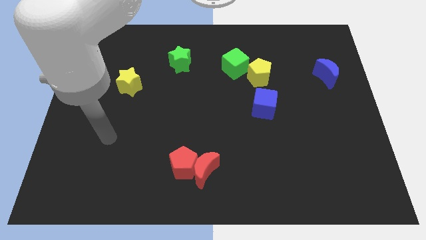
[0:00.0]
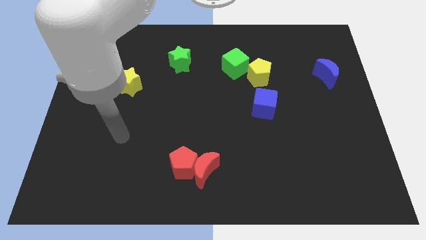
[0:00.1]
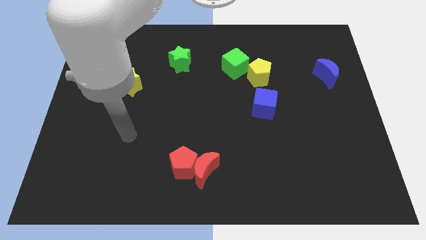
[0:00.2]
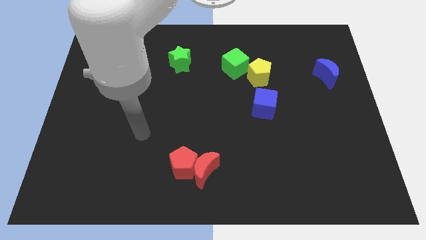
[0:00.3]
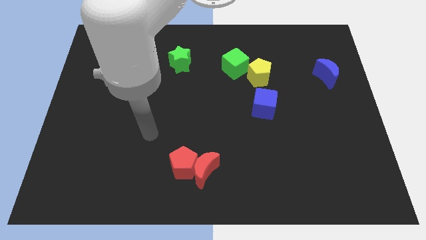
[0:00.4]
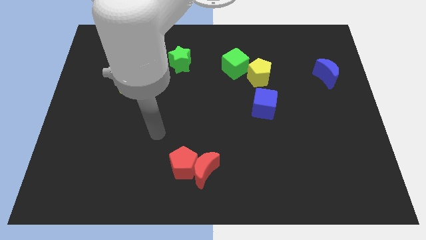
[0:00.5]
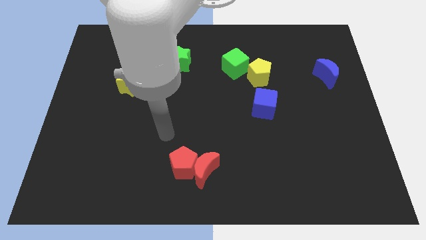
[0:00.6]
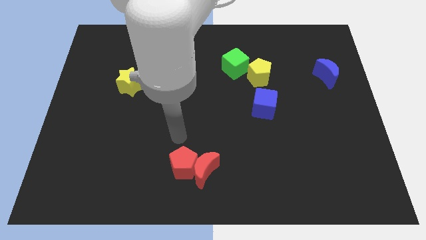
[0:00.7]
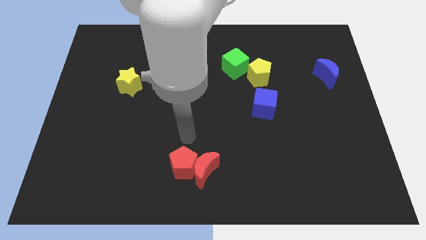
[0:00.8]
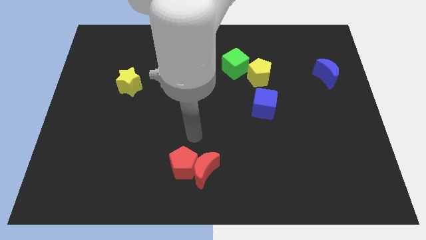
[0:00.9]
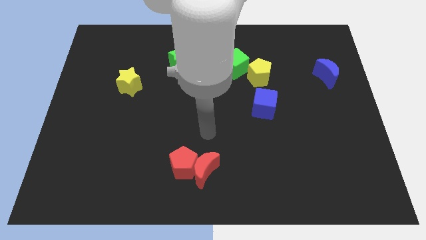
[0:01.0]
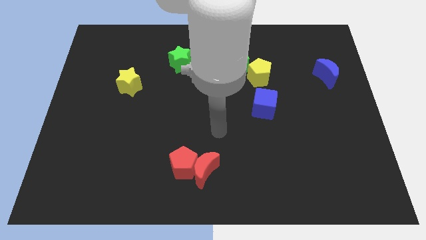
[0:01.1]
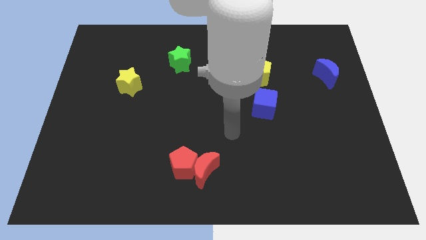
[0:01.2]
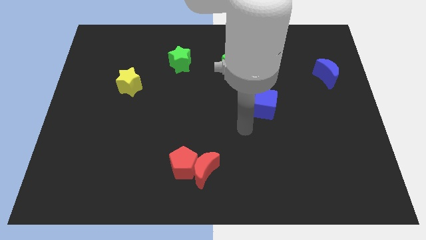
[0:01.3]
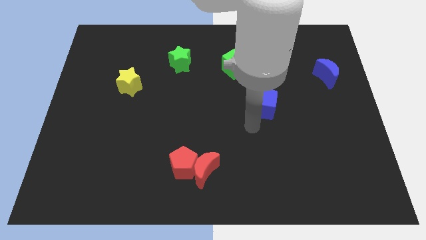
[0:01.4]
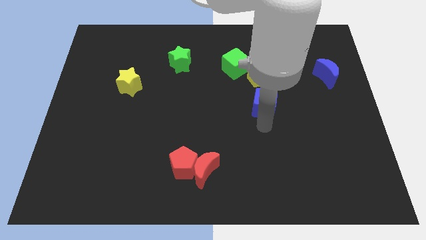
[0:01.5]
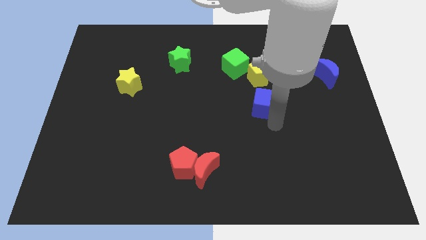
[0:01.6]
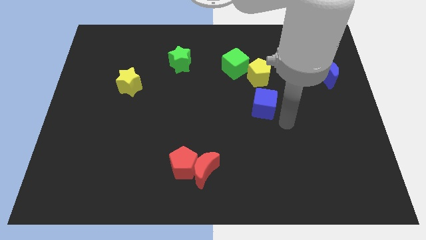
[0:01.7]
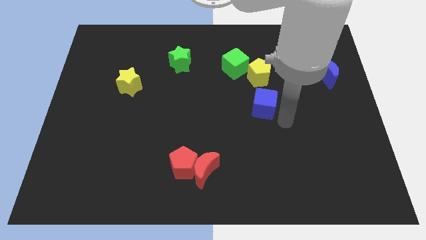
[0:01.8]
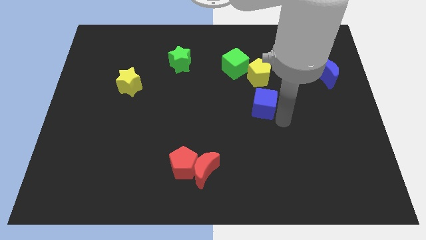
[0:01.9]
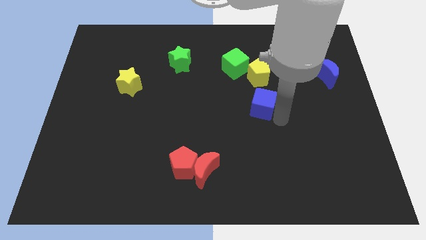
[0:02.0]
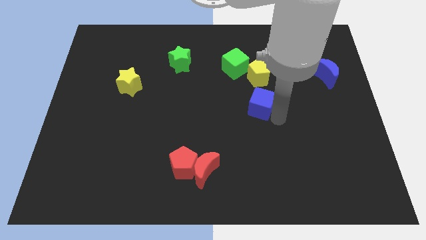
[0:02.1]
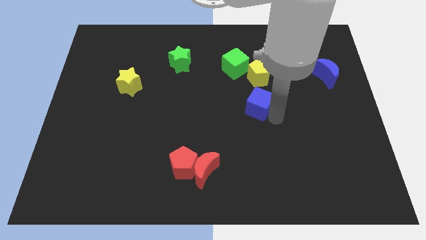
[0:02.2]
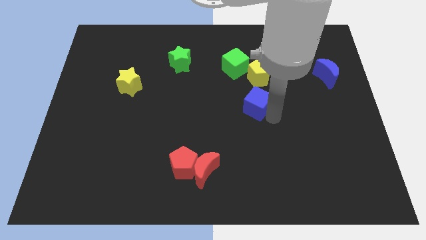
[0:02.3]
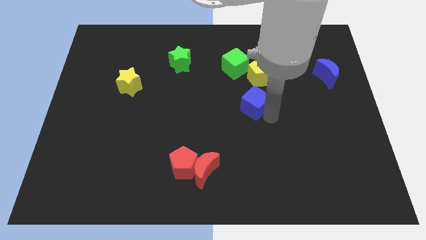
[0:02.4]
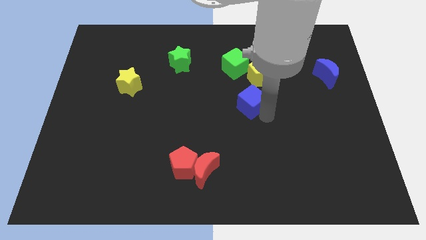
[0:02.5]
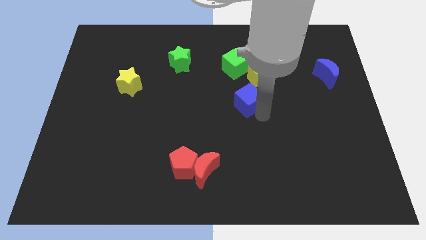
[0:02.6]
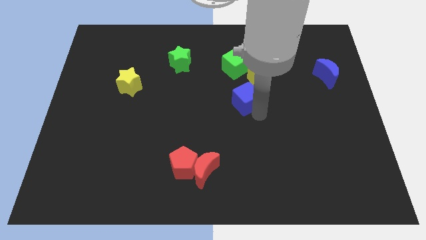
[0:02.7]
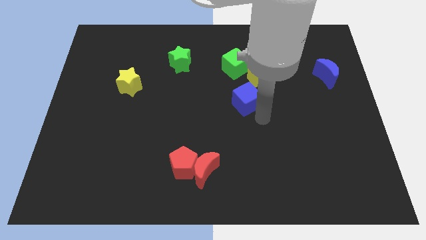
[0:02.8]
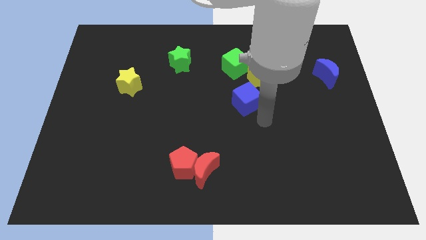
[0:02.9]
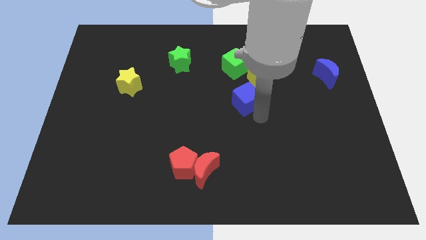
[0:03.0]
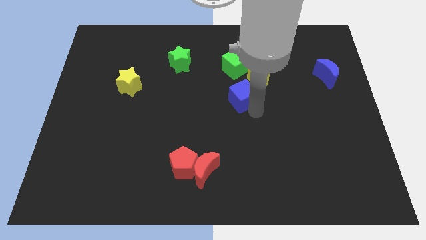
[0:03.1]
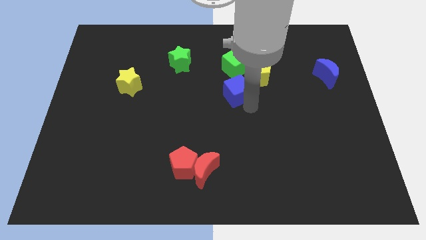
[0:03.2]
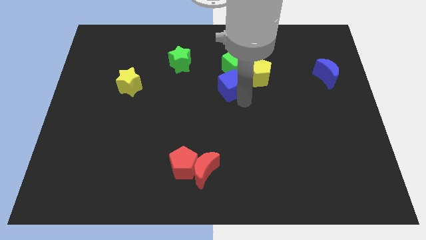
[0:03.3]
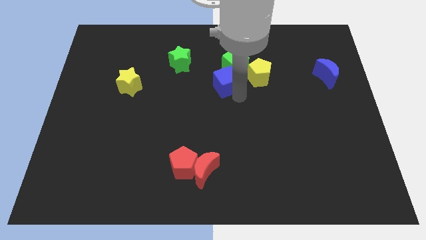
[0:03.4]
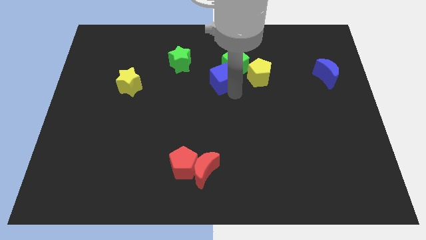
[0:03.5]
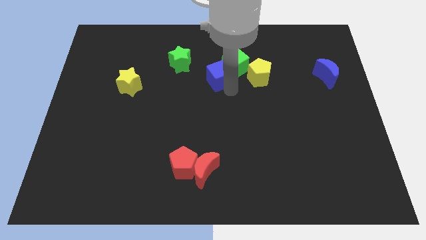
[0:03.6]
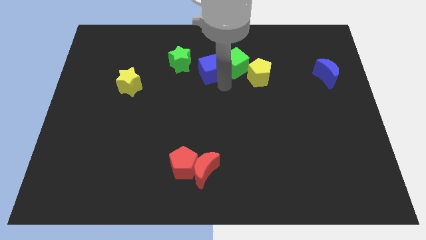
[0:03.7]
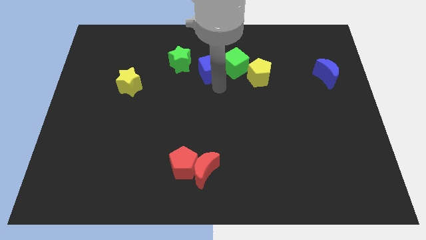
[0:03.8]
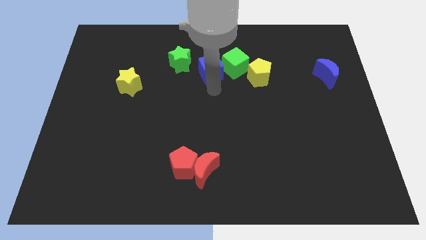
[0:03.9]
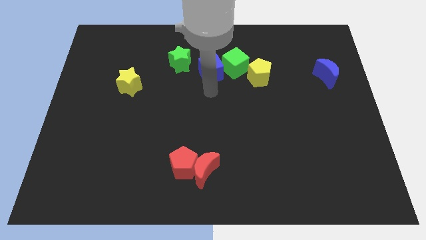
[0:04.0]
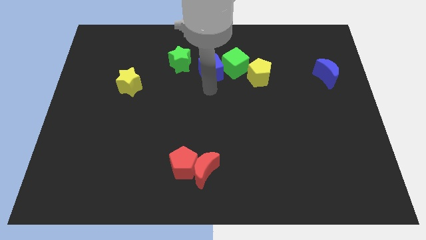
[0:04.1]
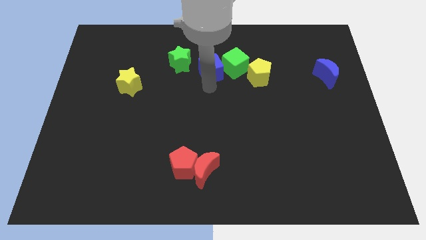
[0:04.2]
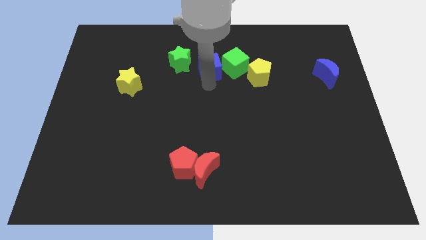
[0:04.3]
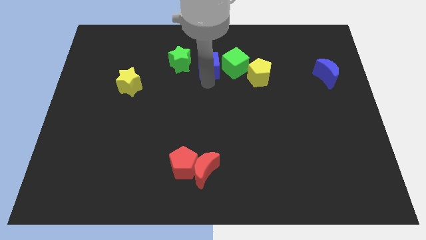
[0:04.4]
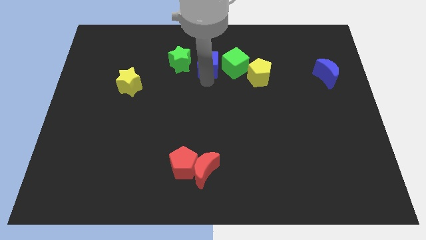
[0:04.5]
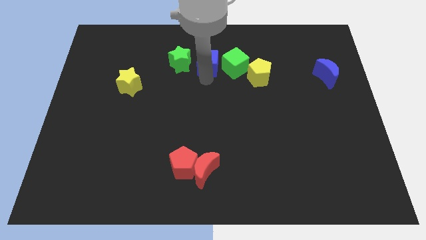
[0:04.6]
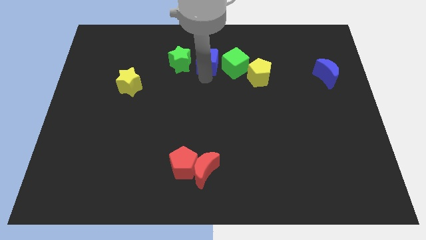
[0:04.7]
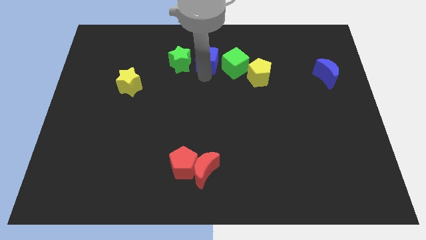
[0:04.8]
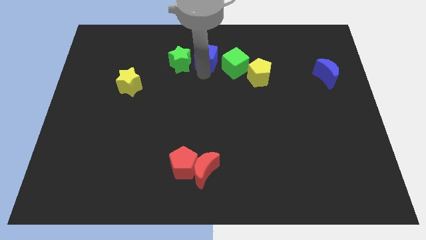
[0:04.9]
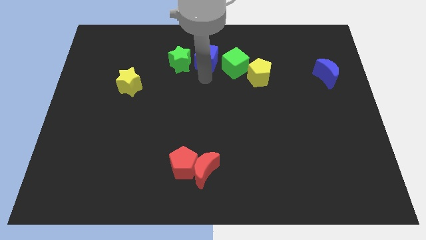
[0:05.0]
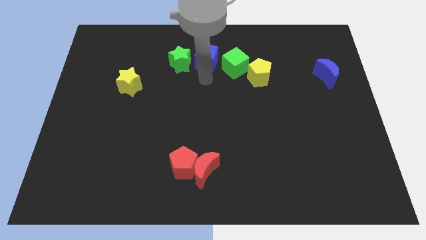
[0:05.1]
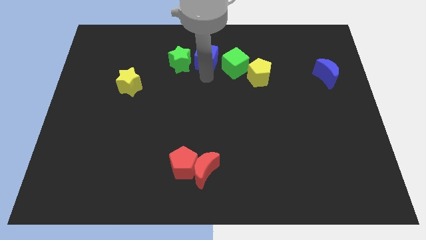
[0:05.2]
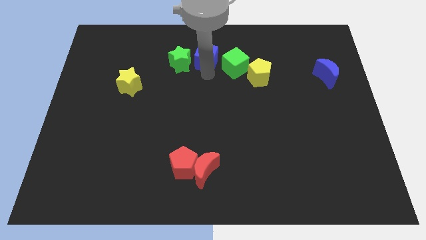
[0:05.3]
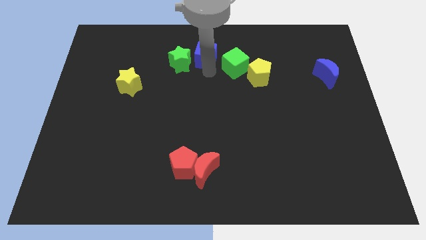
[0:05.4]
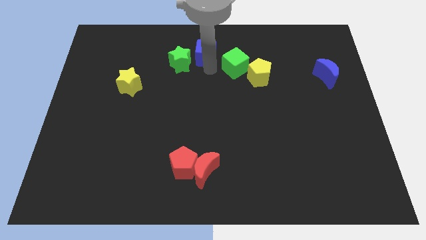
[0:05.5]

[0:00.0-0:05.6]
put the blue cube to the top side
